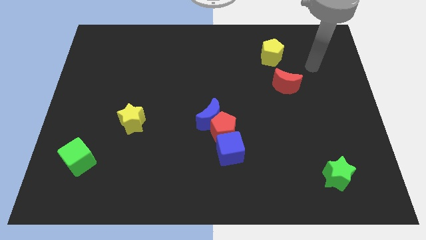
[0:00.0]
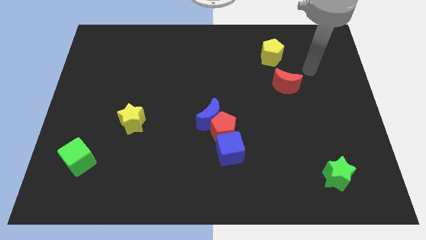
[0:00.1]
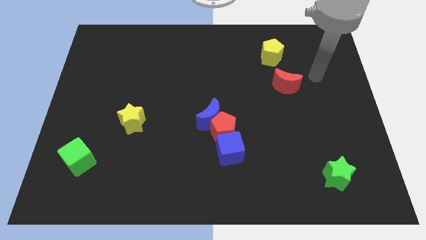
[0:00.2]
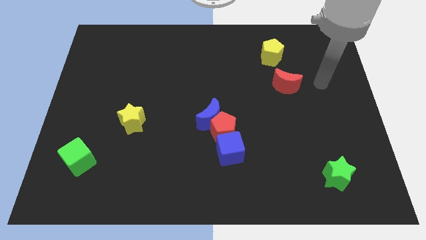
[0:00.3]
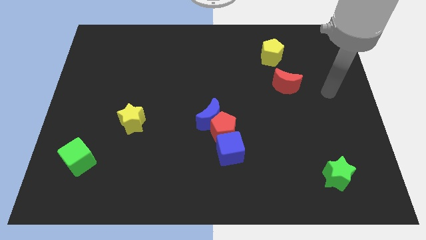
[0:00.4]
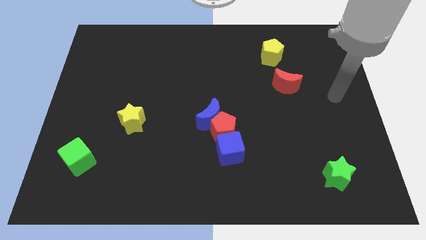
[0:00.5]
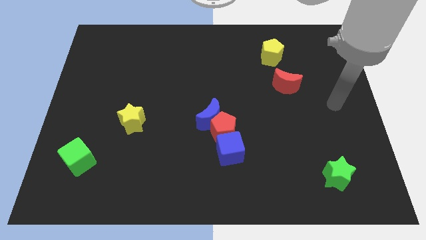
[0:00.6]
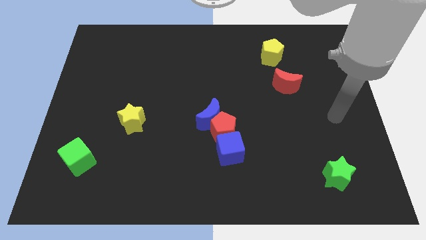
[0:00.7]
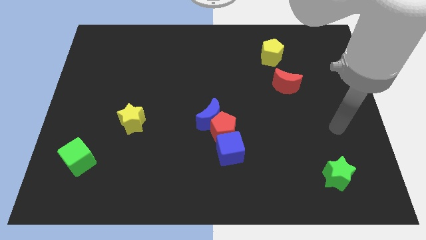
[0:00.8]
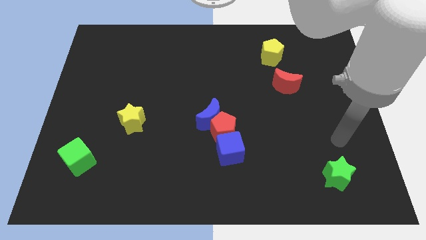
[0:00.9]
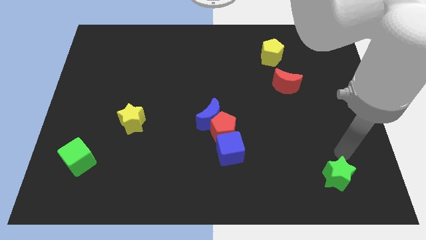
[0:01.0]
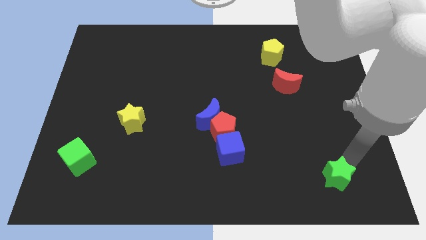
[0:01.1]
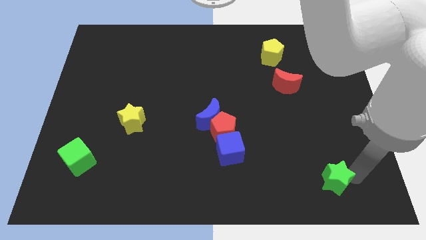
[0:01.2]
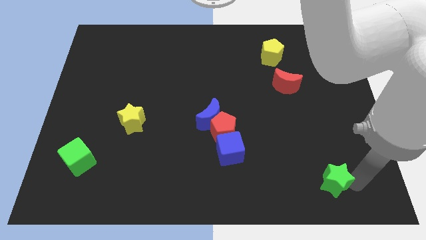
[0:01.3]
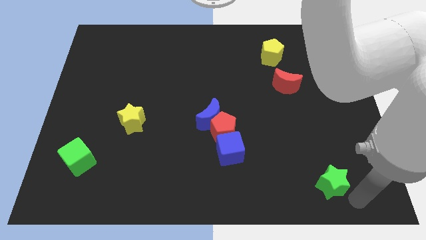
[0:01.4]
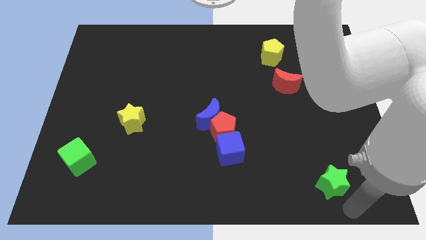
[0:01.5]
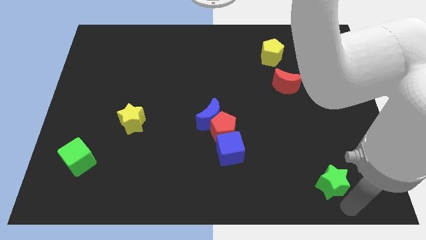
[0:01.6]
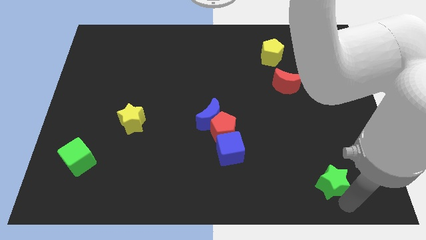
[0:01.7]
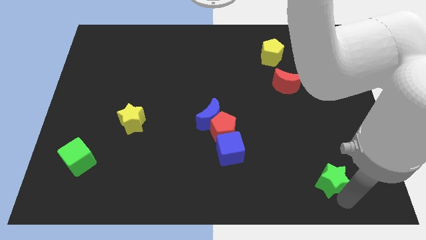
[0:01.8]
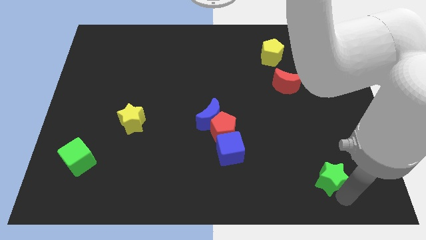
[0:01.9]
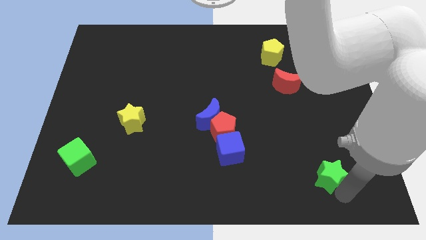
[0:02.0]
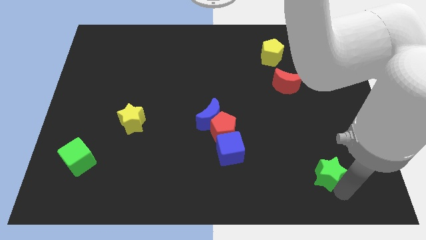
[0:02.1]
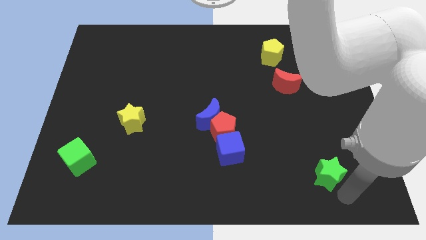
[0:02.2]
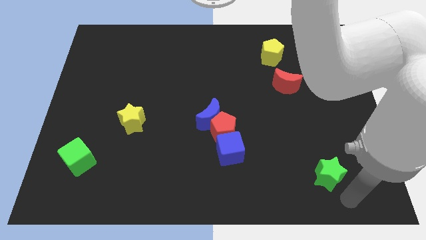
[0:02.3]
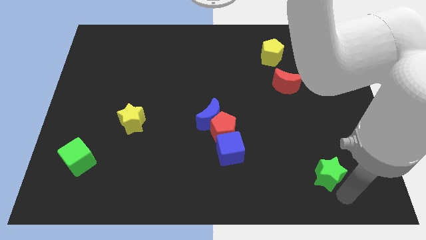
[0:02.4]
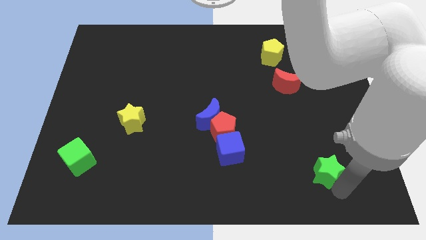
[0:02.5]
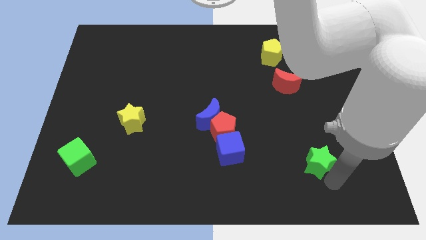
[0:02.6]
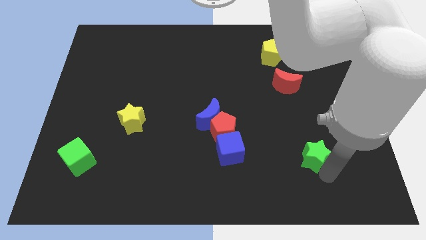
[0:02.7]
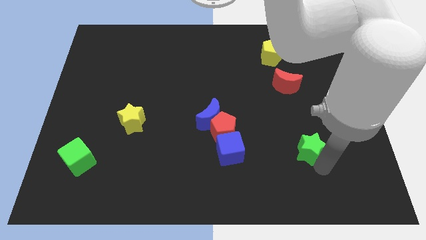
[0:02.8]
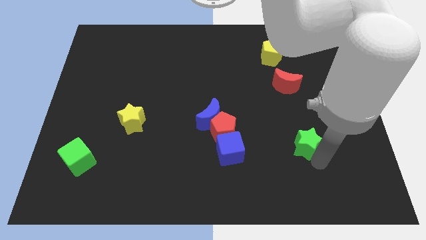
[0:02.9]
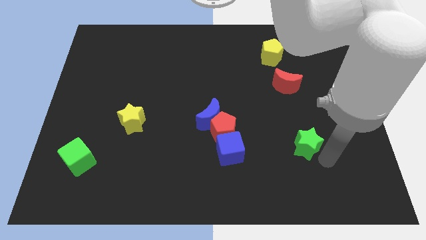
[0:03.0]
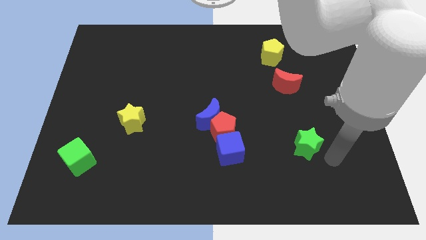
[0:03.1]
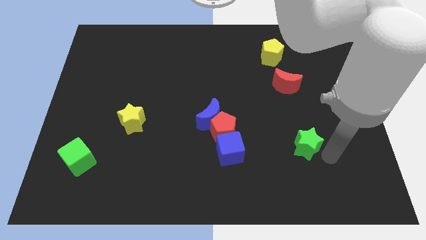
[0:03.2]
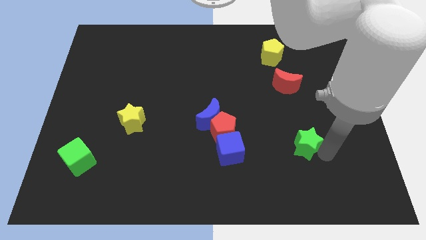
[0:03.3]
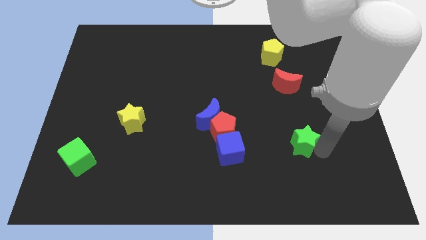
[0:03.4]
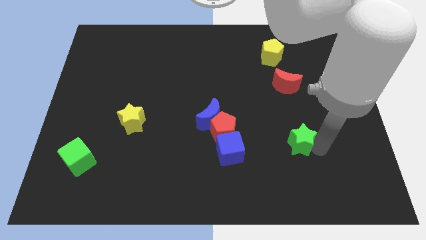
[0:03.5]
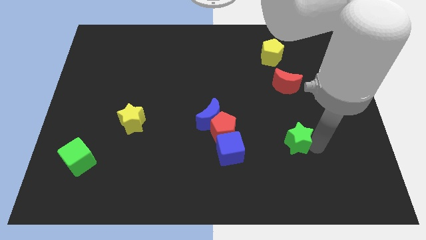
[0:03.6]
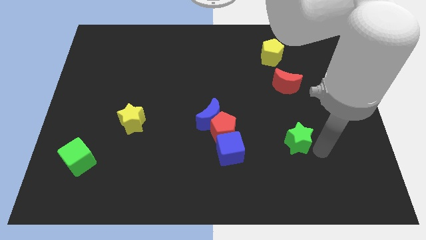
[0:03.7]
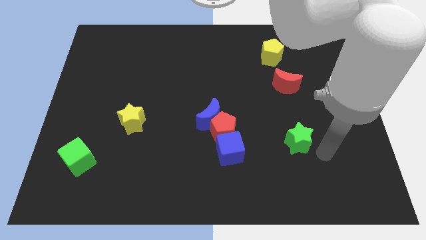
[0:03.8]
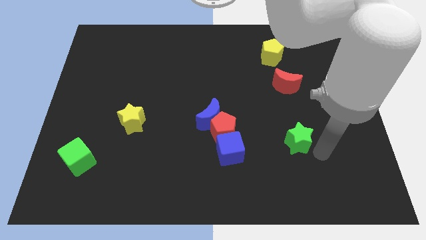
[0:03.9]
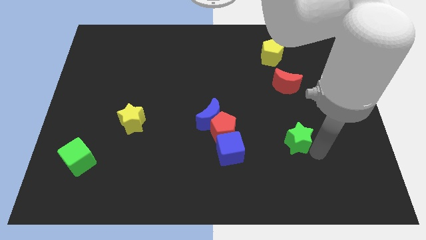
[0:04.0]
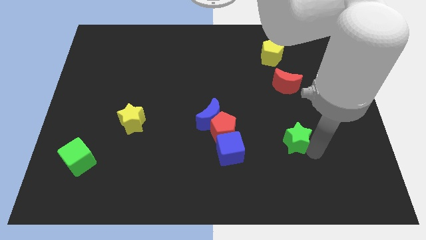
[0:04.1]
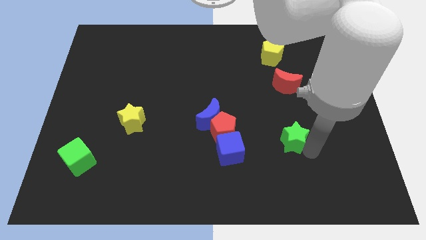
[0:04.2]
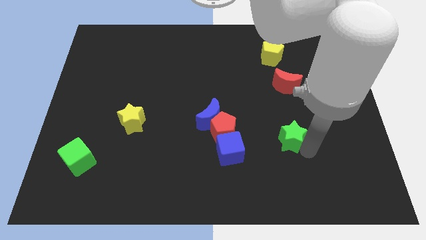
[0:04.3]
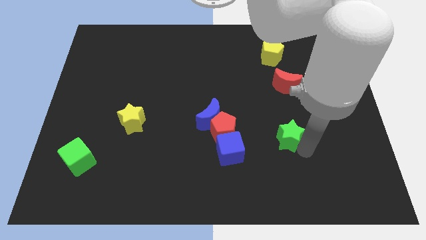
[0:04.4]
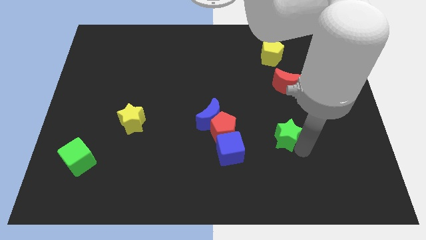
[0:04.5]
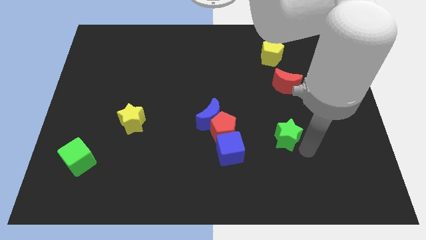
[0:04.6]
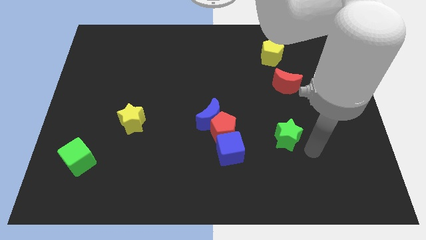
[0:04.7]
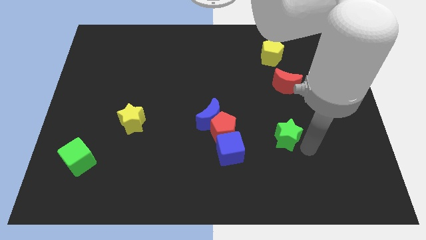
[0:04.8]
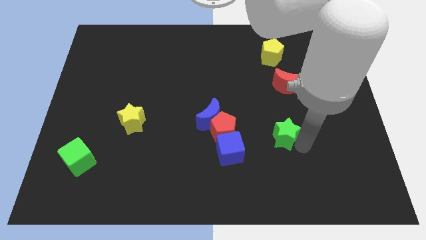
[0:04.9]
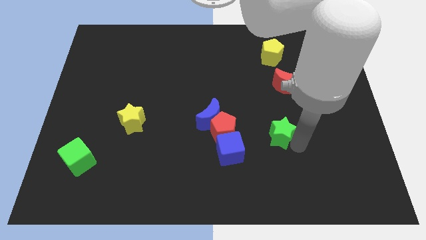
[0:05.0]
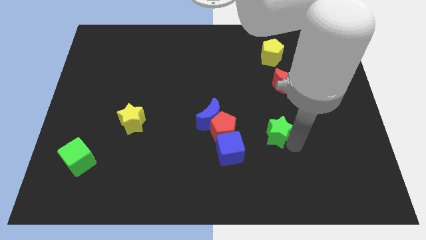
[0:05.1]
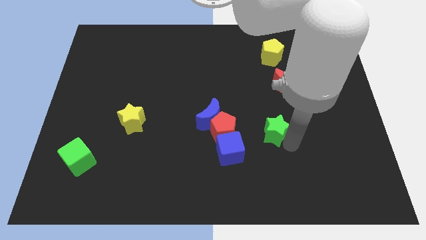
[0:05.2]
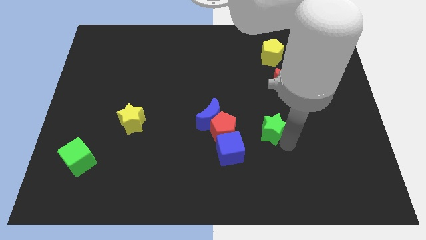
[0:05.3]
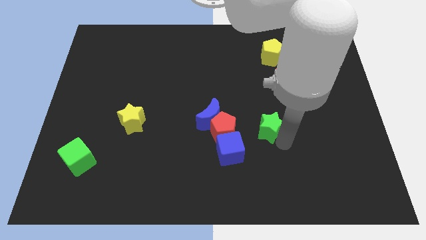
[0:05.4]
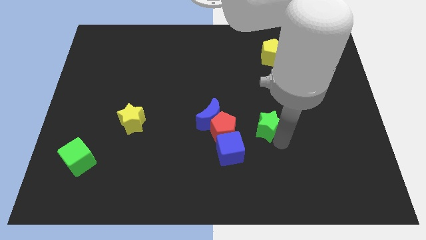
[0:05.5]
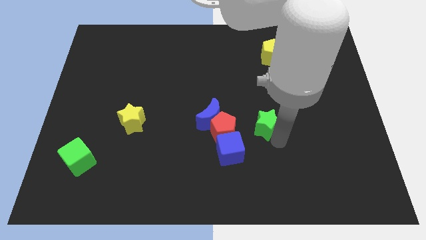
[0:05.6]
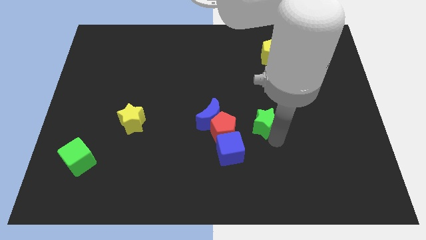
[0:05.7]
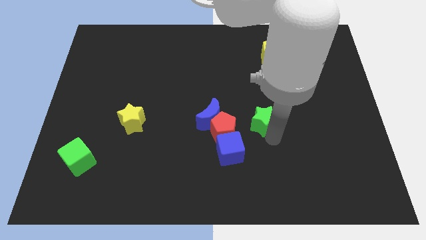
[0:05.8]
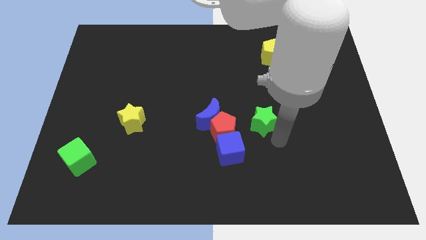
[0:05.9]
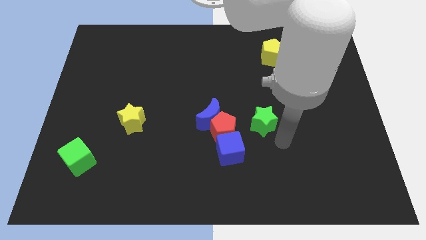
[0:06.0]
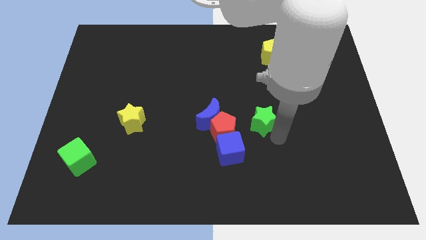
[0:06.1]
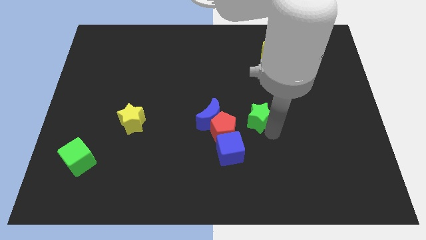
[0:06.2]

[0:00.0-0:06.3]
move the green star up and left

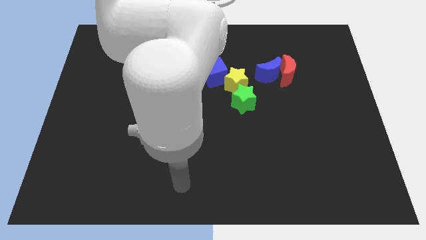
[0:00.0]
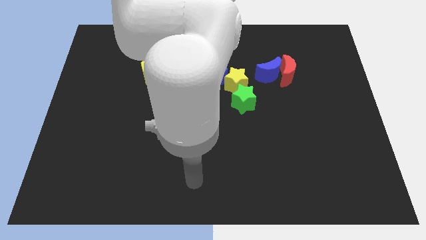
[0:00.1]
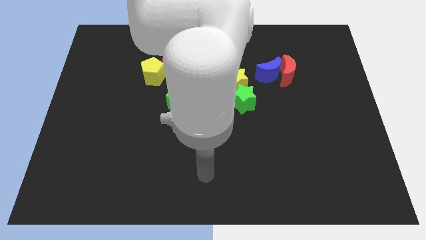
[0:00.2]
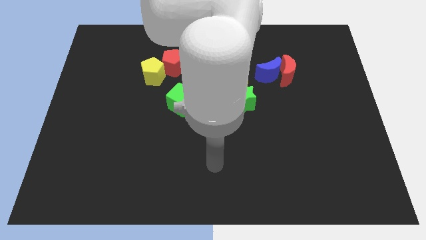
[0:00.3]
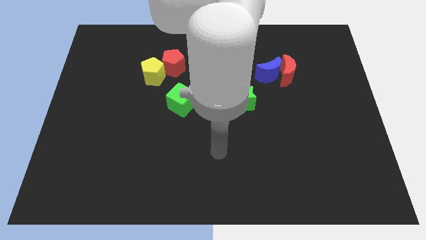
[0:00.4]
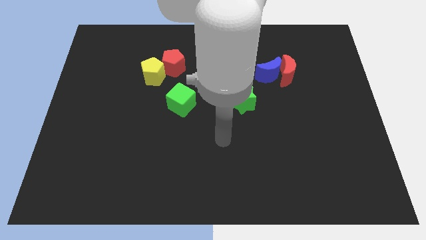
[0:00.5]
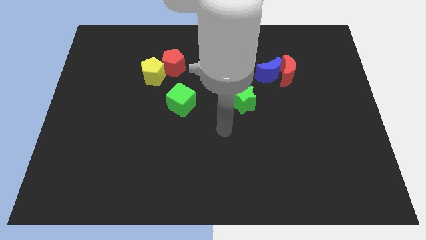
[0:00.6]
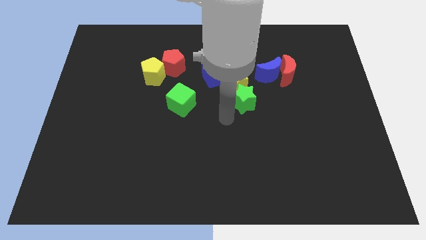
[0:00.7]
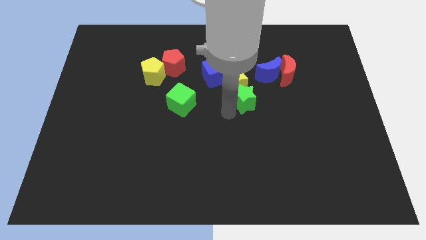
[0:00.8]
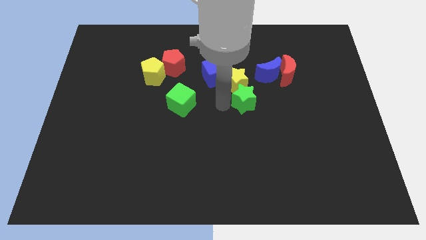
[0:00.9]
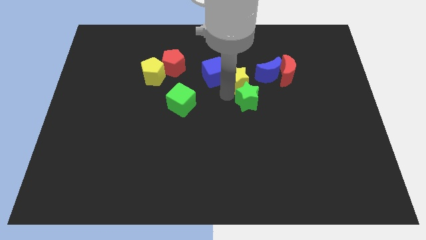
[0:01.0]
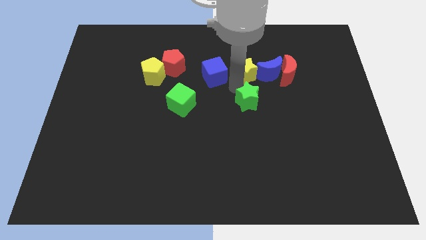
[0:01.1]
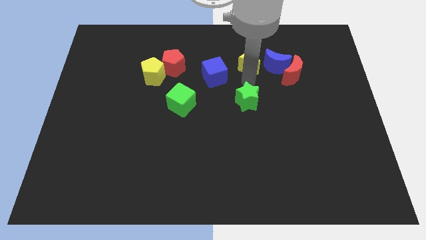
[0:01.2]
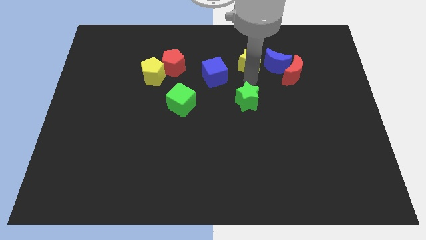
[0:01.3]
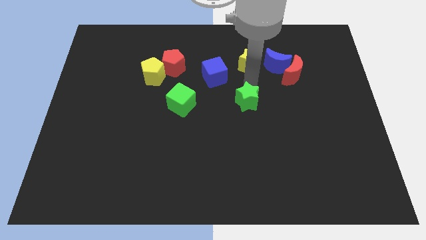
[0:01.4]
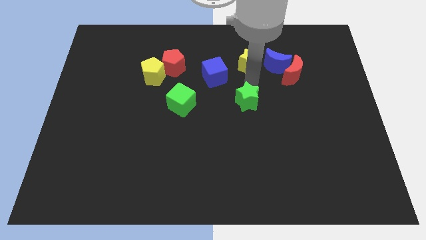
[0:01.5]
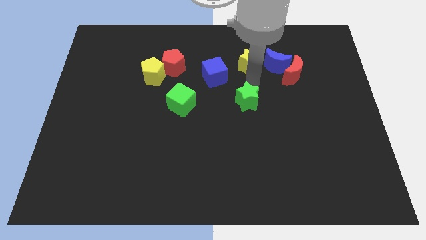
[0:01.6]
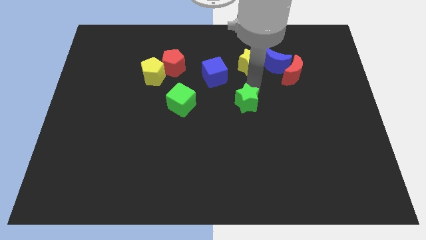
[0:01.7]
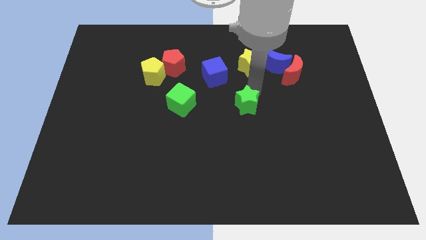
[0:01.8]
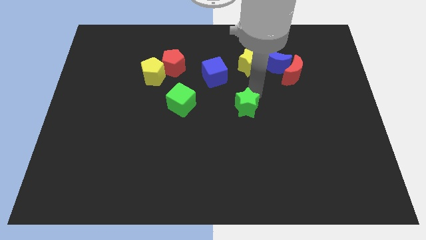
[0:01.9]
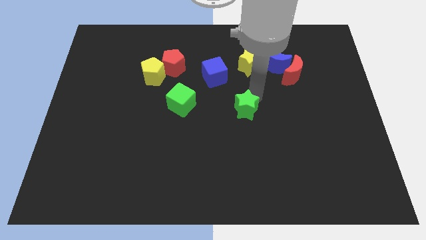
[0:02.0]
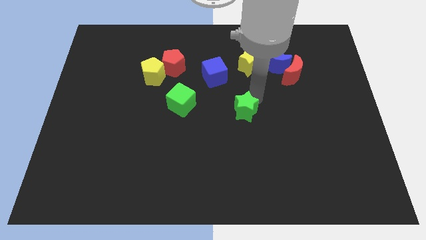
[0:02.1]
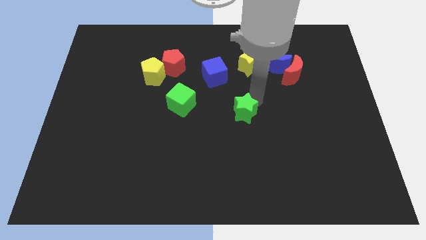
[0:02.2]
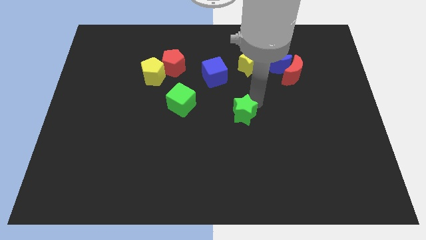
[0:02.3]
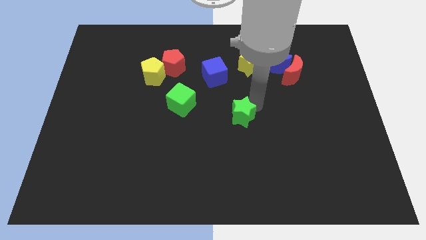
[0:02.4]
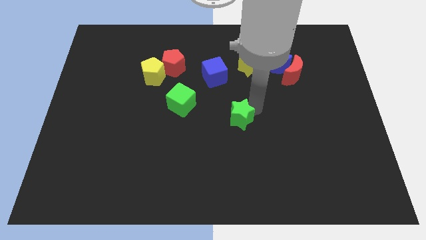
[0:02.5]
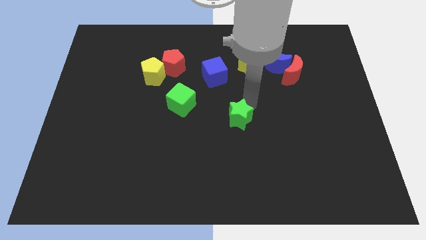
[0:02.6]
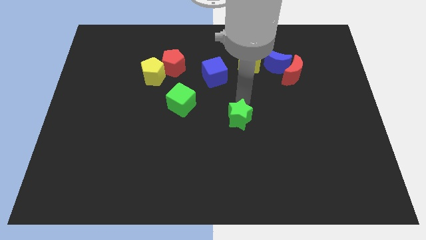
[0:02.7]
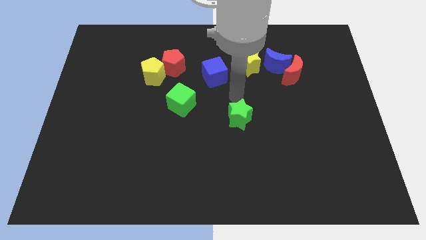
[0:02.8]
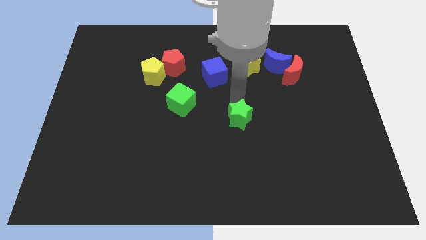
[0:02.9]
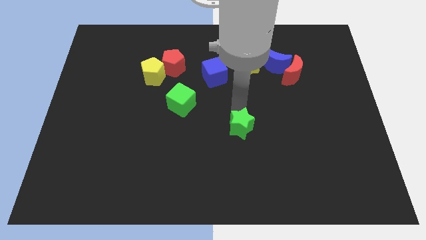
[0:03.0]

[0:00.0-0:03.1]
push the green star slightly downwards
